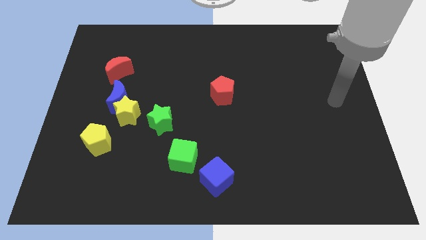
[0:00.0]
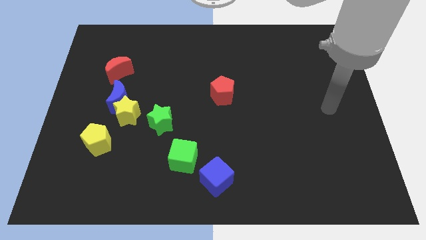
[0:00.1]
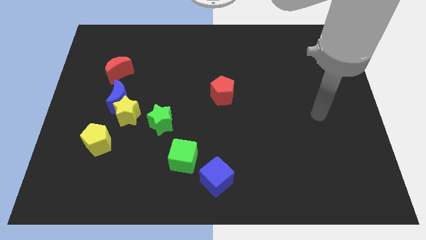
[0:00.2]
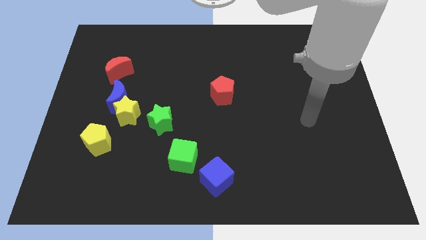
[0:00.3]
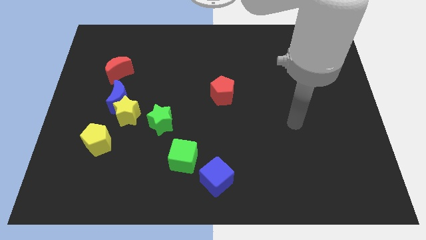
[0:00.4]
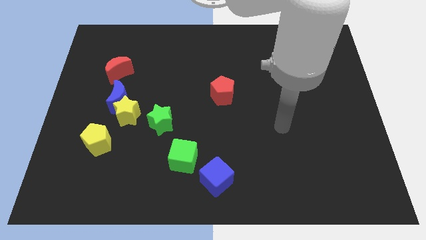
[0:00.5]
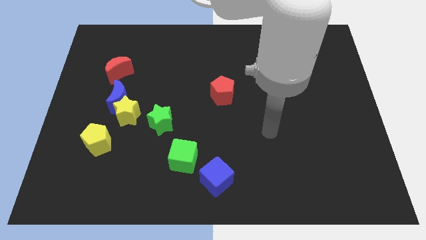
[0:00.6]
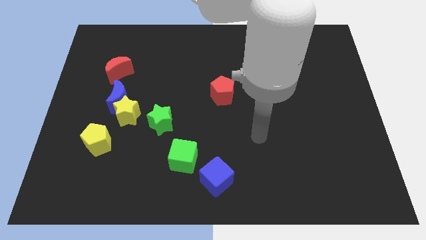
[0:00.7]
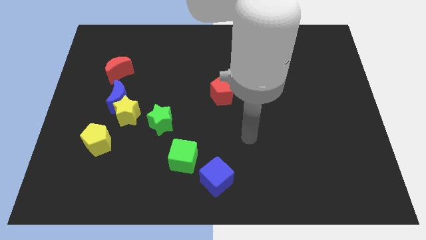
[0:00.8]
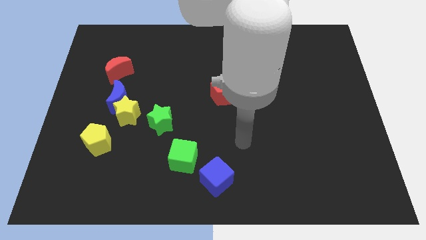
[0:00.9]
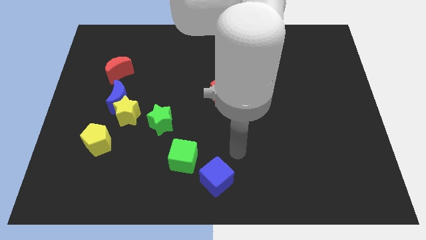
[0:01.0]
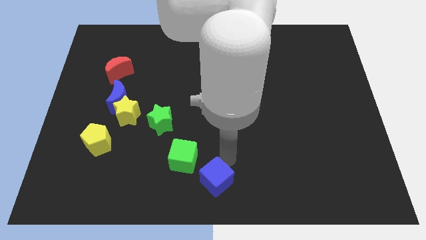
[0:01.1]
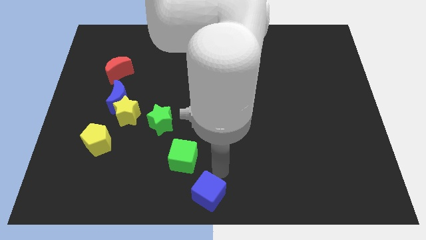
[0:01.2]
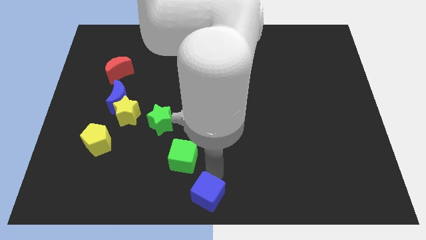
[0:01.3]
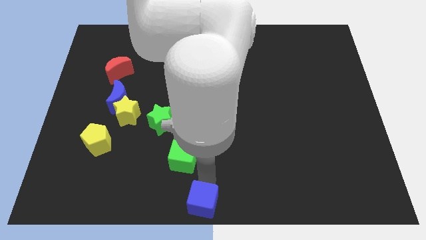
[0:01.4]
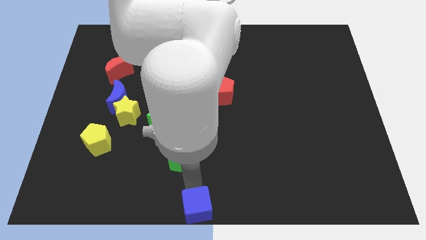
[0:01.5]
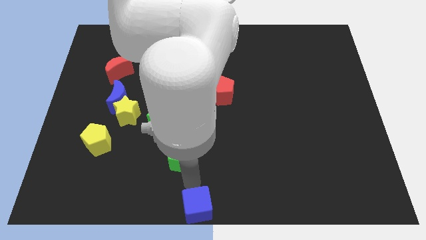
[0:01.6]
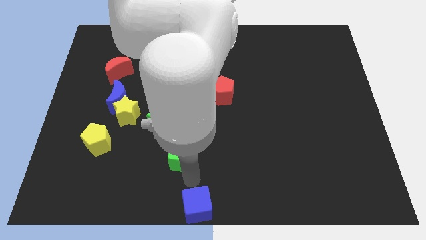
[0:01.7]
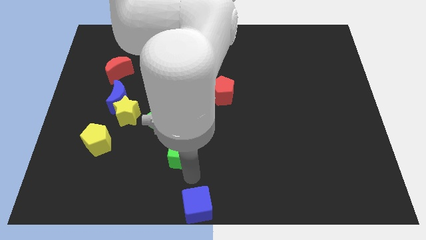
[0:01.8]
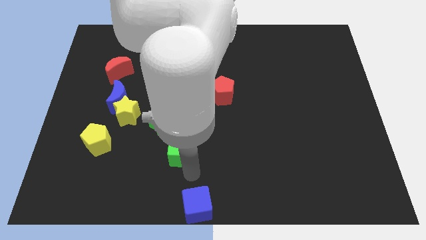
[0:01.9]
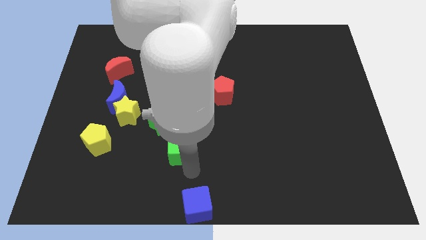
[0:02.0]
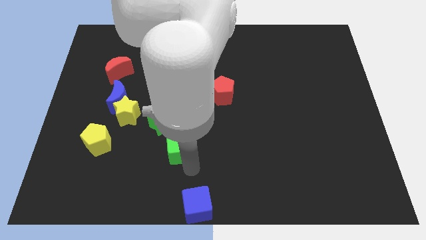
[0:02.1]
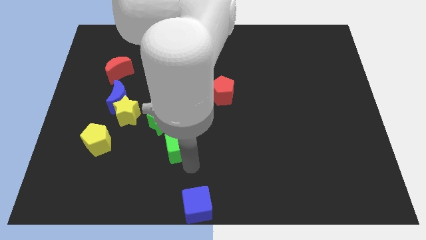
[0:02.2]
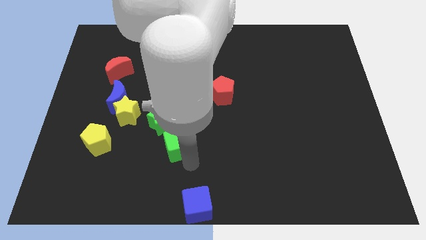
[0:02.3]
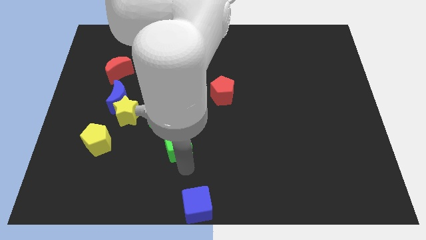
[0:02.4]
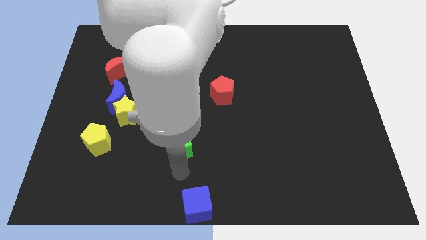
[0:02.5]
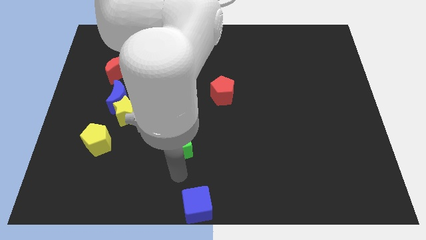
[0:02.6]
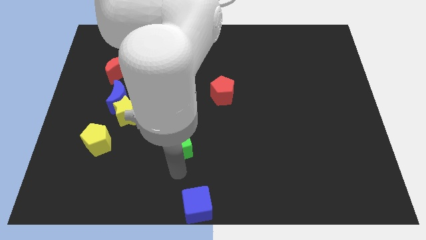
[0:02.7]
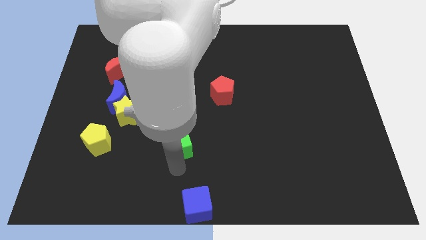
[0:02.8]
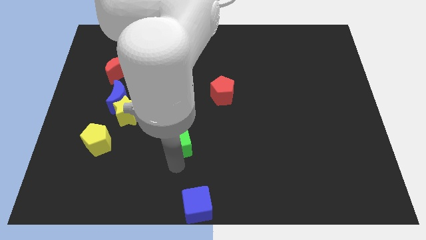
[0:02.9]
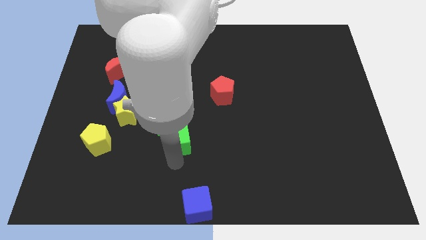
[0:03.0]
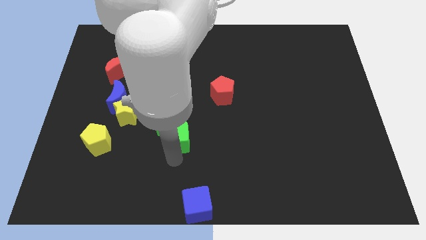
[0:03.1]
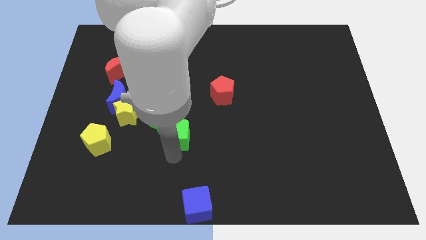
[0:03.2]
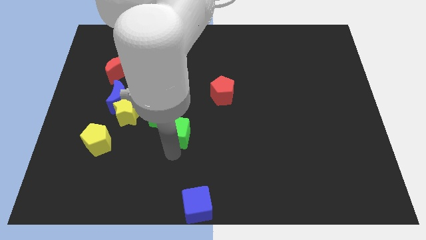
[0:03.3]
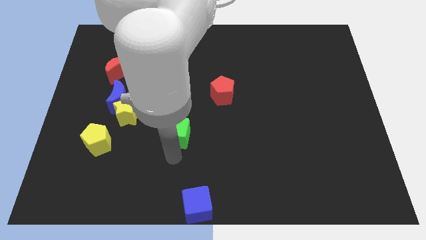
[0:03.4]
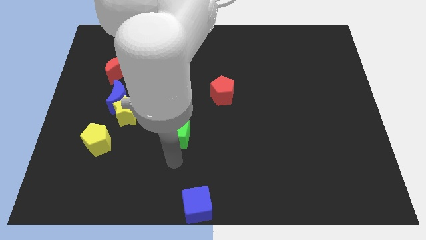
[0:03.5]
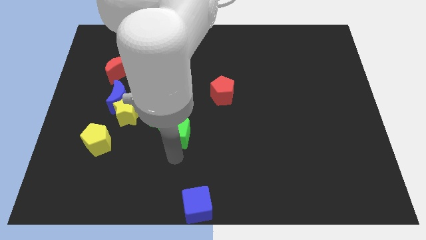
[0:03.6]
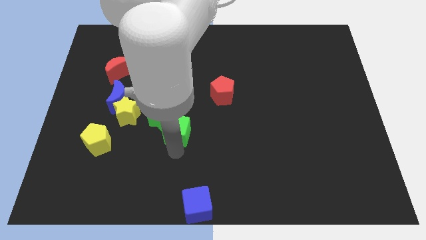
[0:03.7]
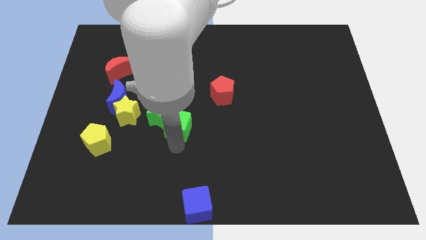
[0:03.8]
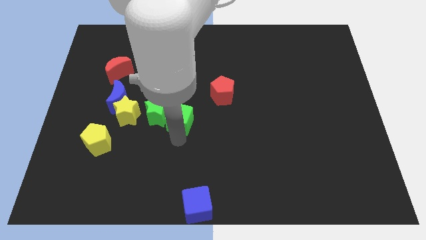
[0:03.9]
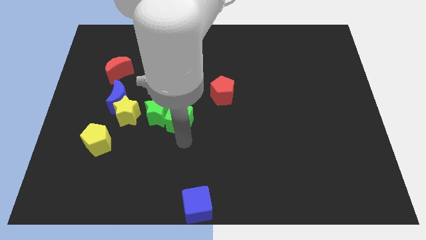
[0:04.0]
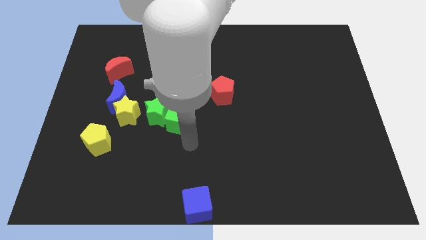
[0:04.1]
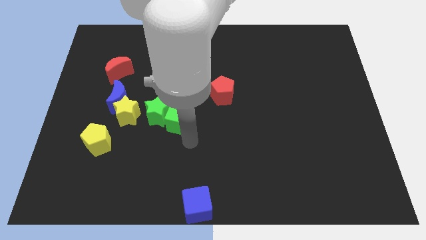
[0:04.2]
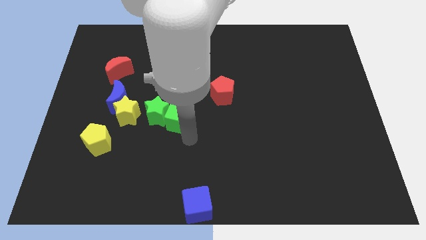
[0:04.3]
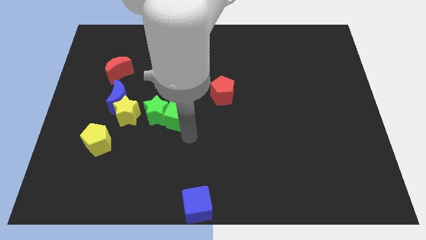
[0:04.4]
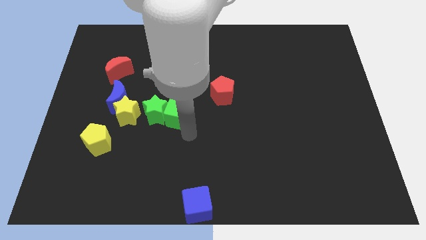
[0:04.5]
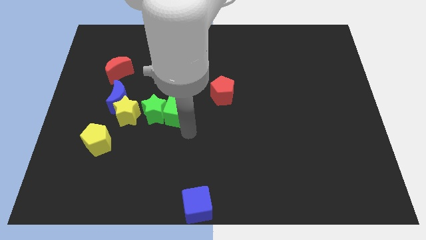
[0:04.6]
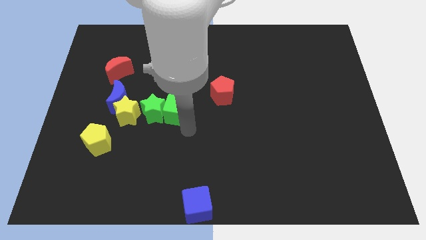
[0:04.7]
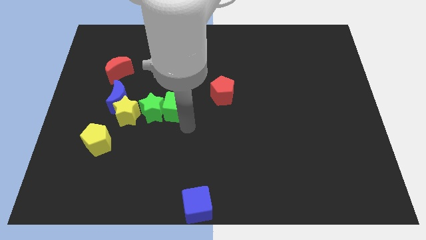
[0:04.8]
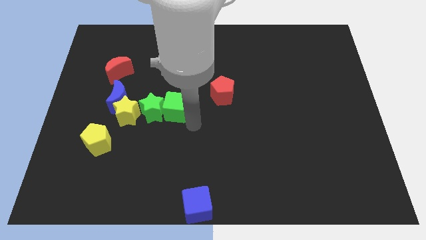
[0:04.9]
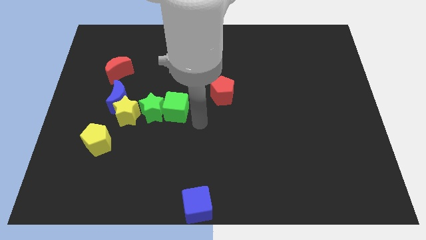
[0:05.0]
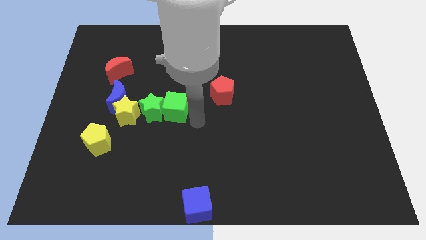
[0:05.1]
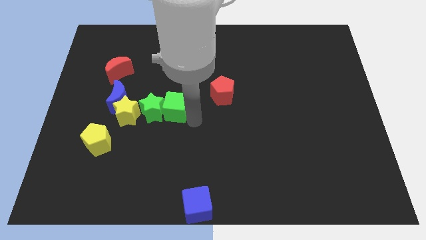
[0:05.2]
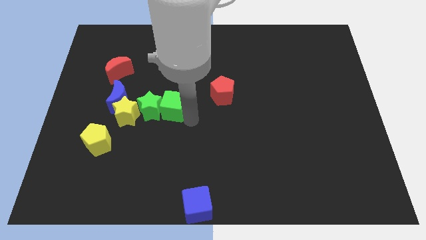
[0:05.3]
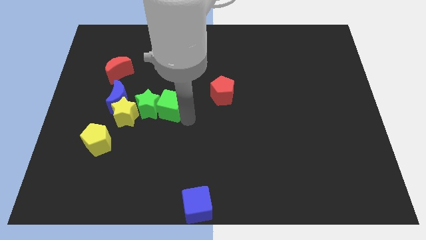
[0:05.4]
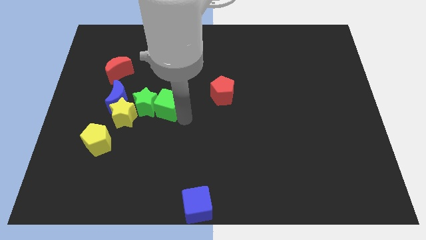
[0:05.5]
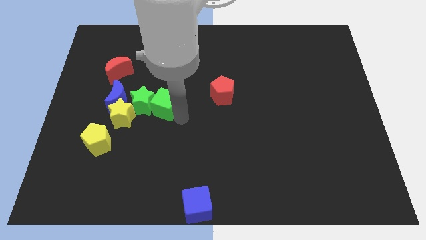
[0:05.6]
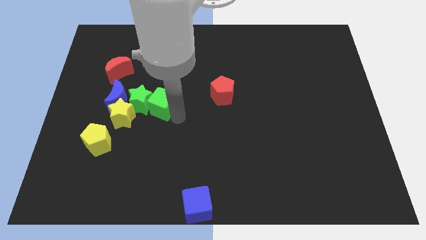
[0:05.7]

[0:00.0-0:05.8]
slide the green cube to the top right side of the yellow star
